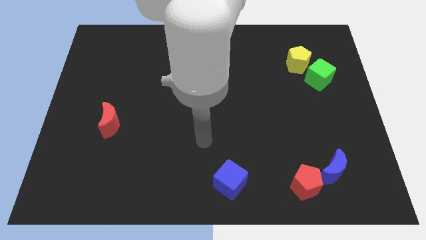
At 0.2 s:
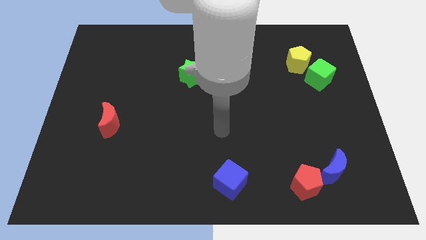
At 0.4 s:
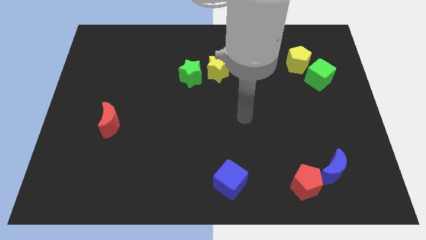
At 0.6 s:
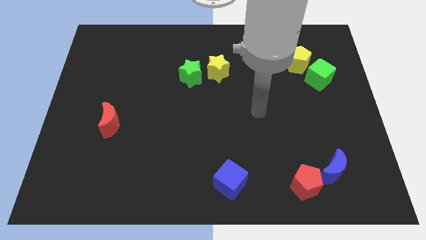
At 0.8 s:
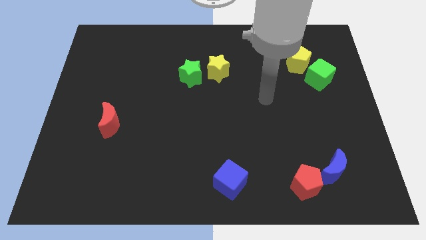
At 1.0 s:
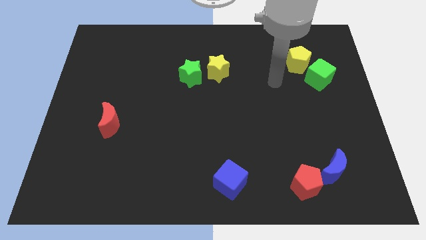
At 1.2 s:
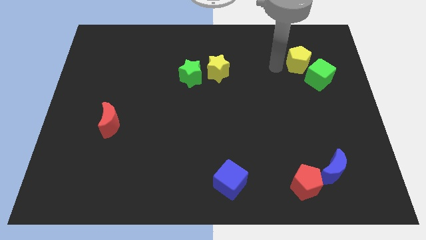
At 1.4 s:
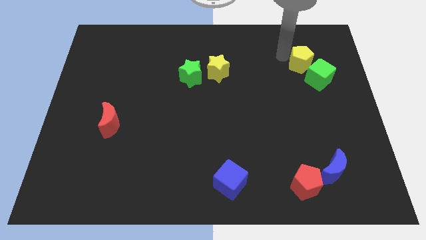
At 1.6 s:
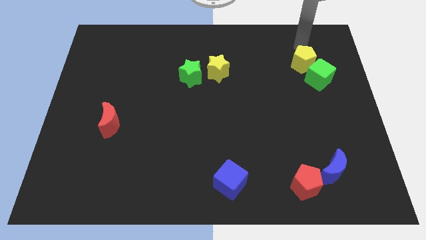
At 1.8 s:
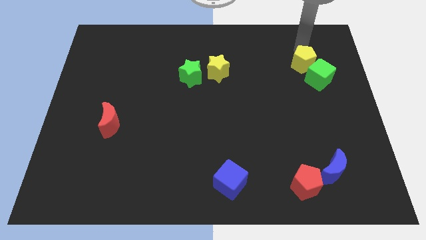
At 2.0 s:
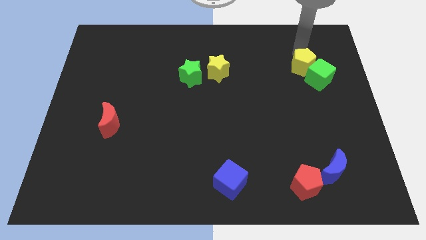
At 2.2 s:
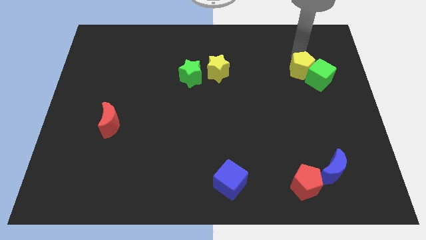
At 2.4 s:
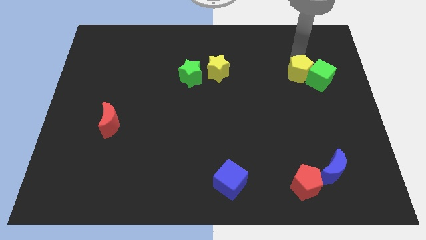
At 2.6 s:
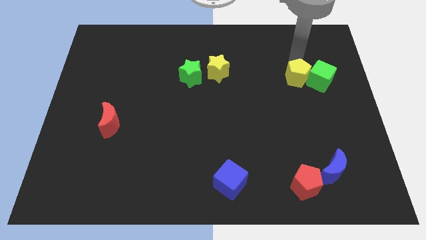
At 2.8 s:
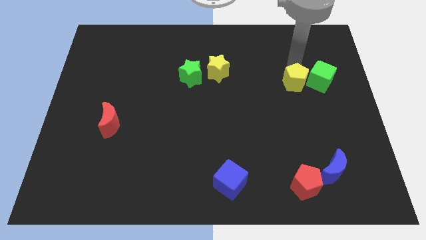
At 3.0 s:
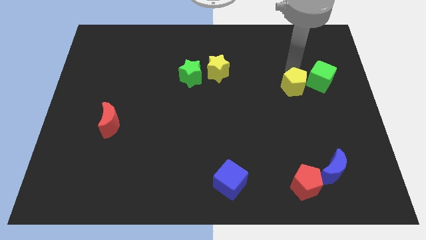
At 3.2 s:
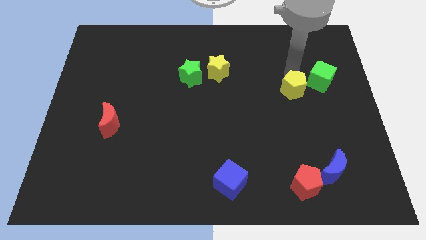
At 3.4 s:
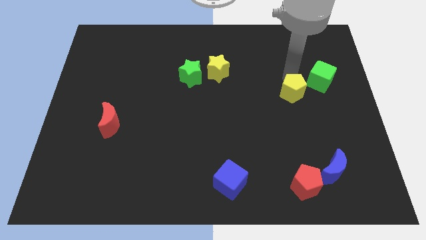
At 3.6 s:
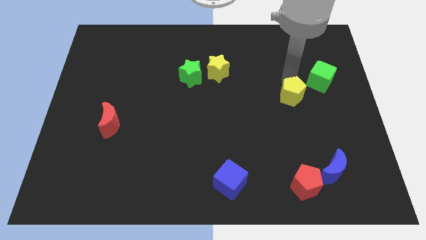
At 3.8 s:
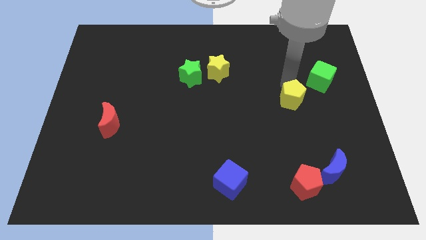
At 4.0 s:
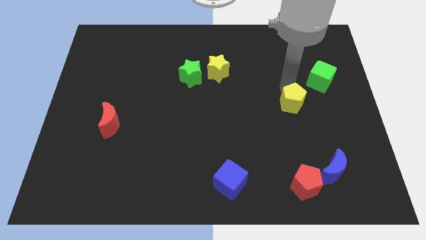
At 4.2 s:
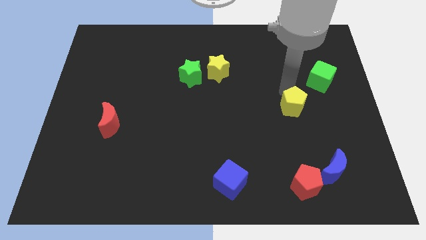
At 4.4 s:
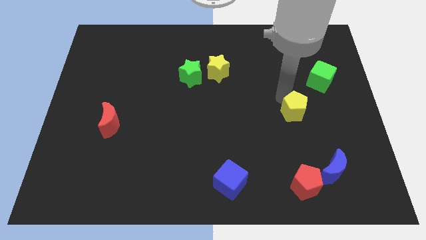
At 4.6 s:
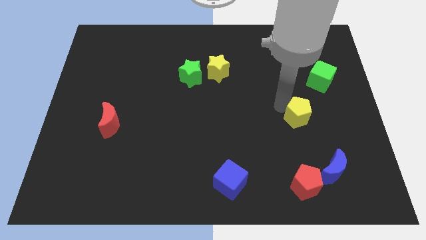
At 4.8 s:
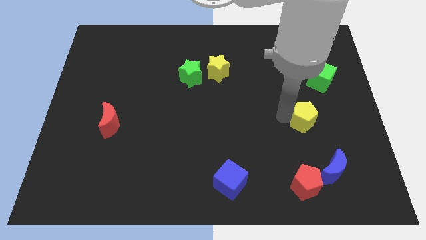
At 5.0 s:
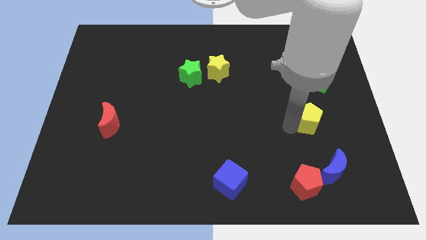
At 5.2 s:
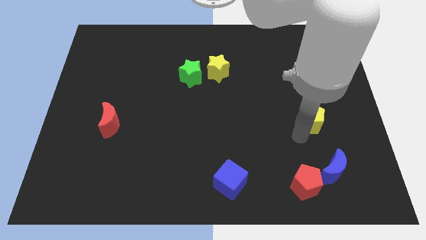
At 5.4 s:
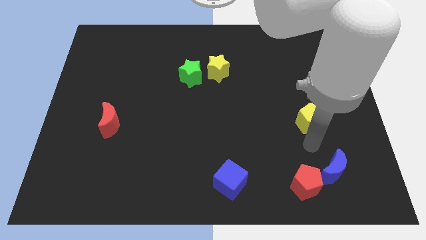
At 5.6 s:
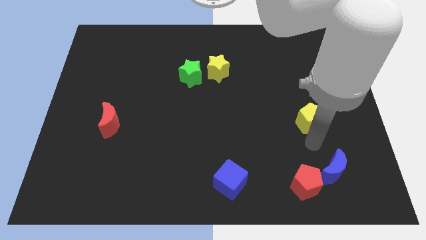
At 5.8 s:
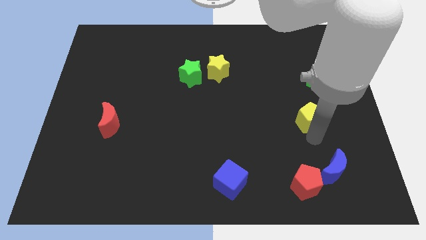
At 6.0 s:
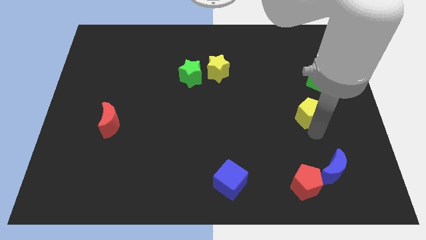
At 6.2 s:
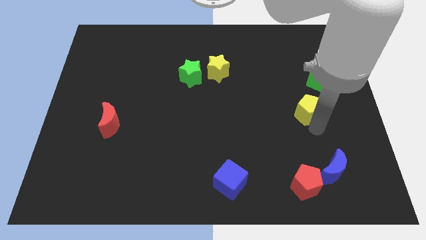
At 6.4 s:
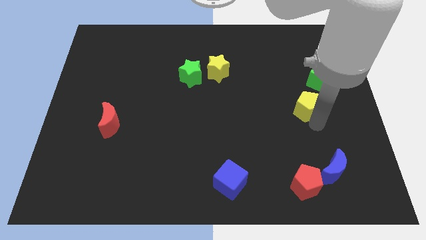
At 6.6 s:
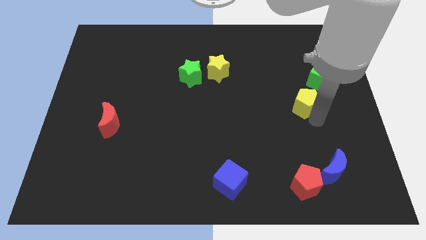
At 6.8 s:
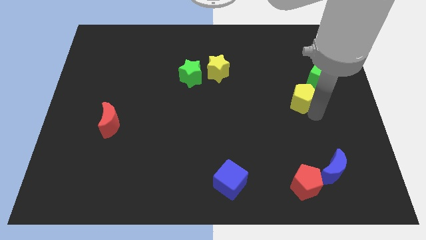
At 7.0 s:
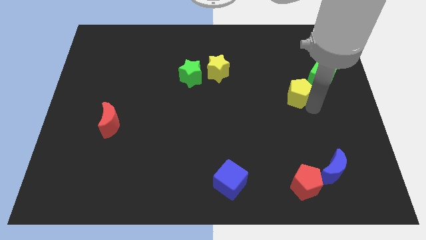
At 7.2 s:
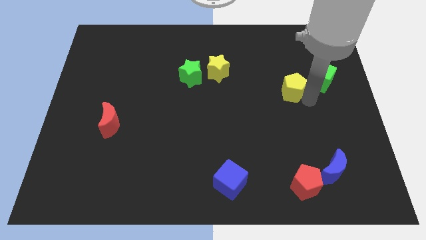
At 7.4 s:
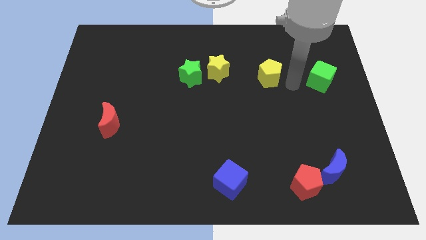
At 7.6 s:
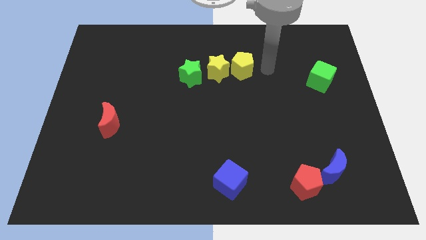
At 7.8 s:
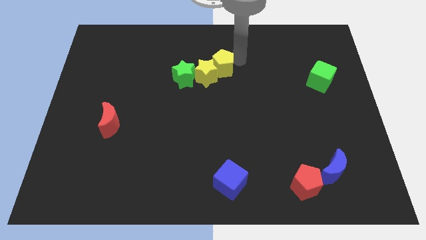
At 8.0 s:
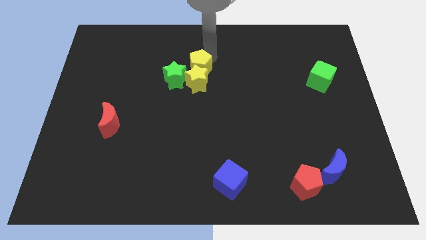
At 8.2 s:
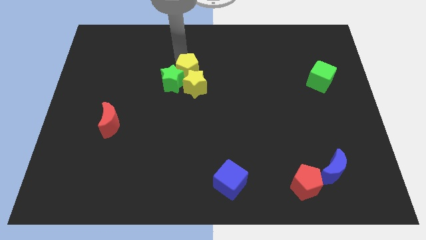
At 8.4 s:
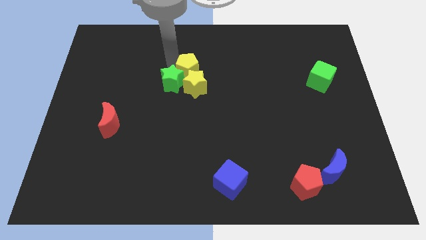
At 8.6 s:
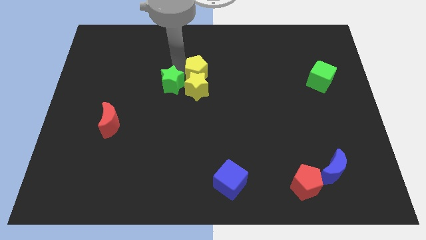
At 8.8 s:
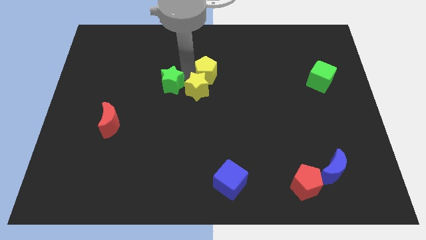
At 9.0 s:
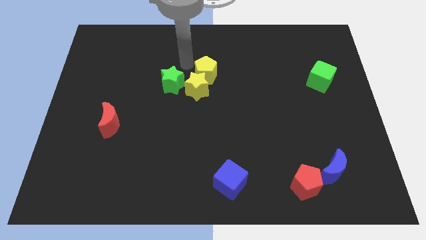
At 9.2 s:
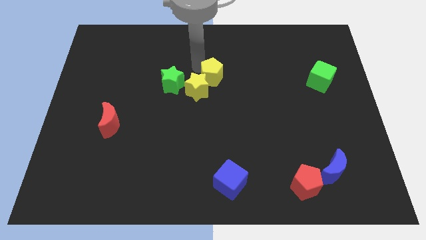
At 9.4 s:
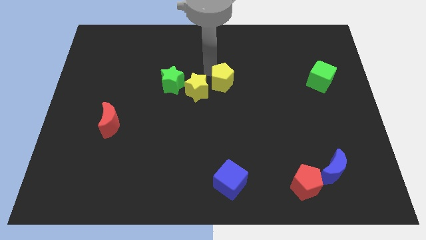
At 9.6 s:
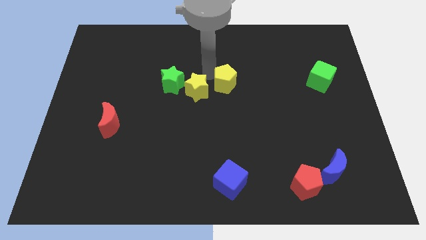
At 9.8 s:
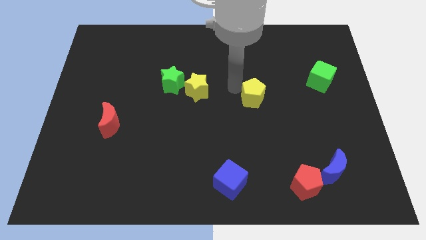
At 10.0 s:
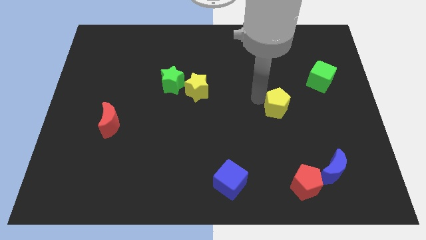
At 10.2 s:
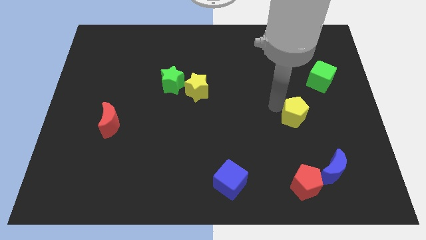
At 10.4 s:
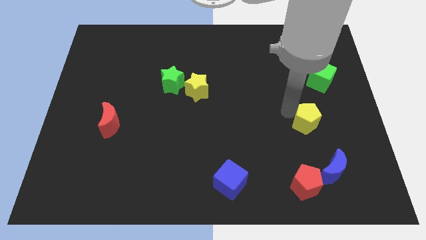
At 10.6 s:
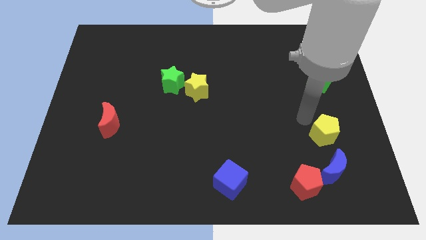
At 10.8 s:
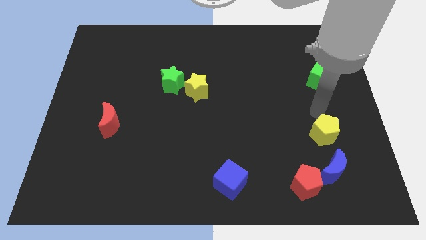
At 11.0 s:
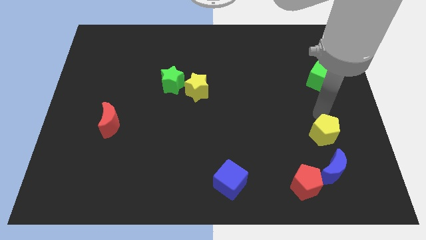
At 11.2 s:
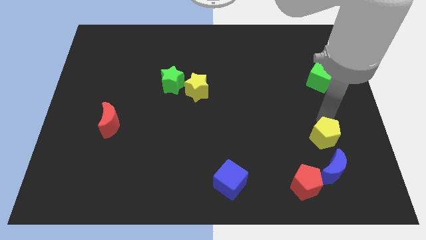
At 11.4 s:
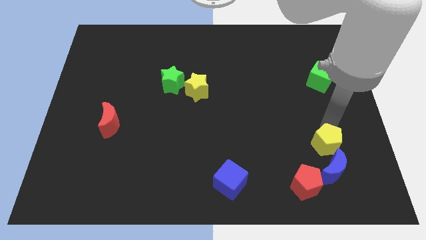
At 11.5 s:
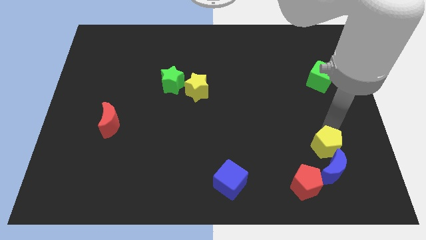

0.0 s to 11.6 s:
put the yellow pentagon close to the blue moon

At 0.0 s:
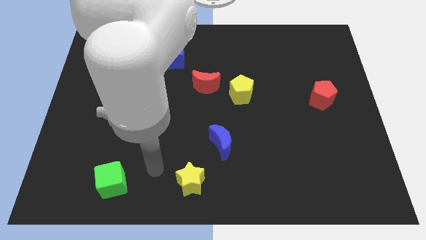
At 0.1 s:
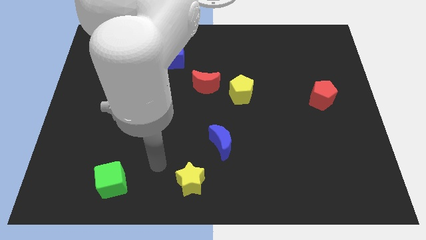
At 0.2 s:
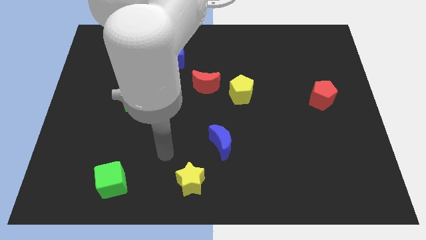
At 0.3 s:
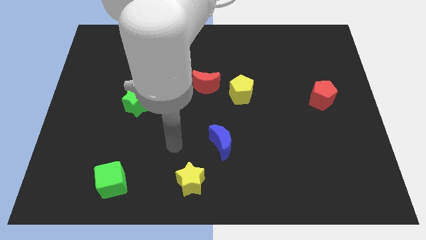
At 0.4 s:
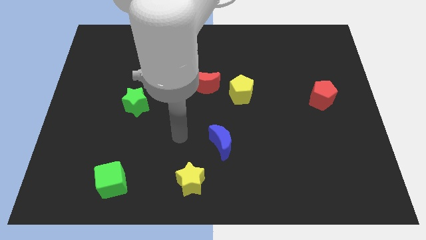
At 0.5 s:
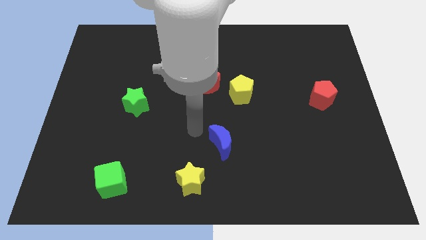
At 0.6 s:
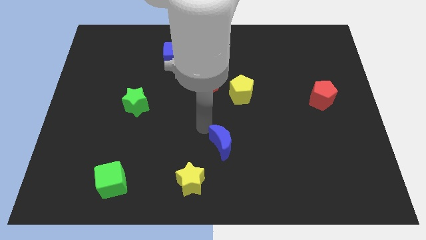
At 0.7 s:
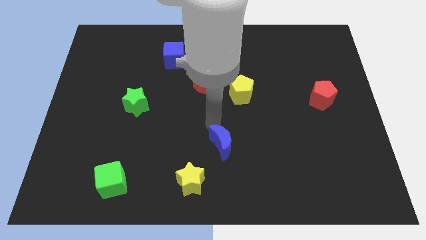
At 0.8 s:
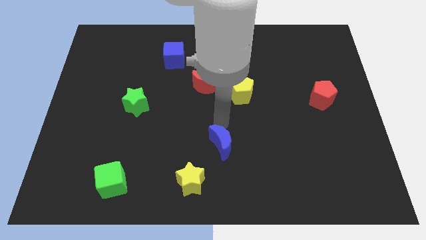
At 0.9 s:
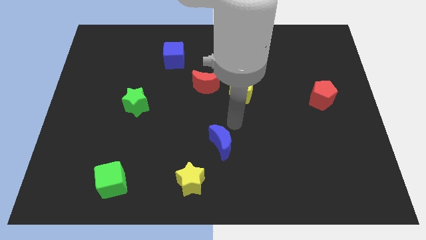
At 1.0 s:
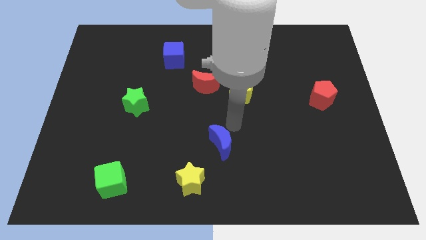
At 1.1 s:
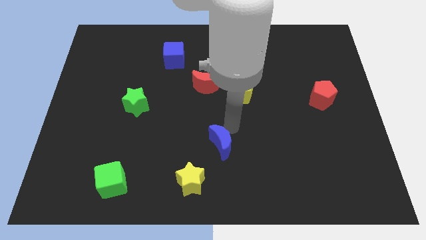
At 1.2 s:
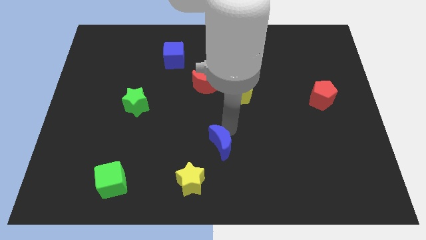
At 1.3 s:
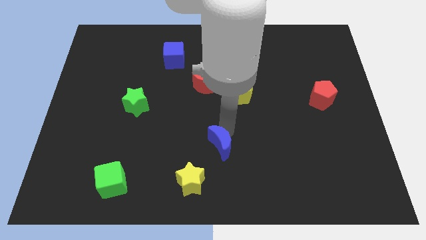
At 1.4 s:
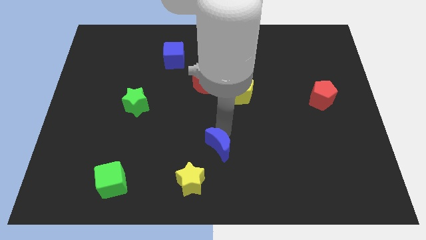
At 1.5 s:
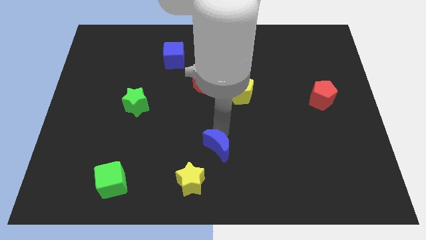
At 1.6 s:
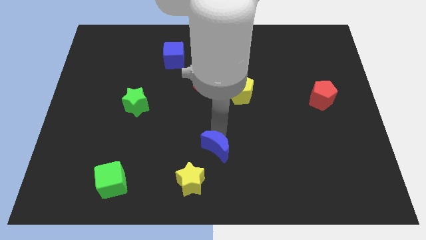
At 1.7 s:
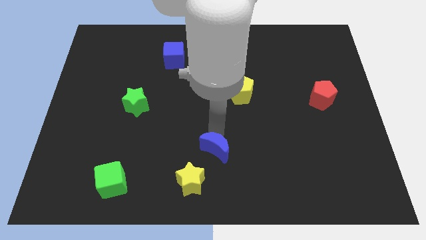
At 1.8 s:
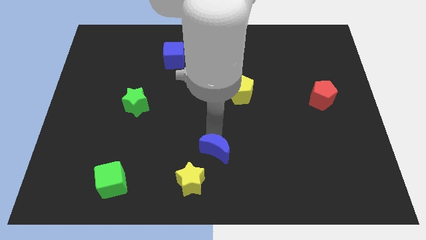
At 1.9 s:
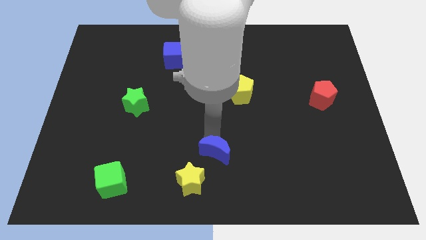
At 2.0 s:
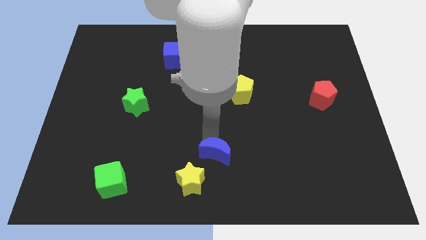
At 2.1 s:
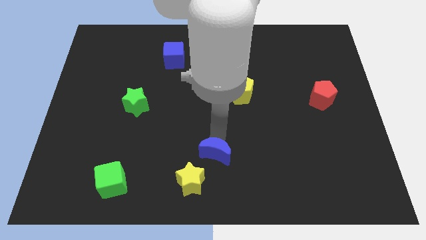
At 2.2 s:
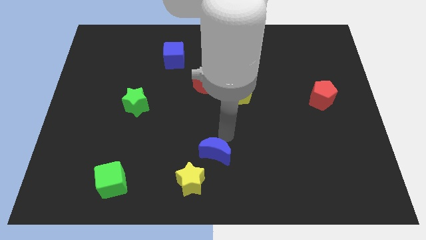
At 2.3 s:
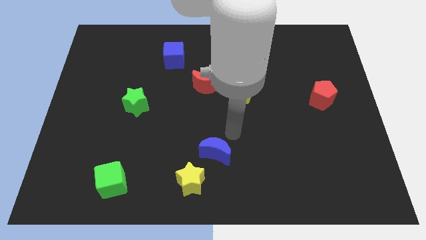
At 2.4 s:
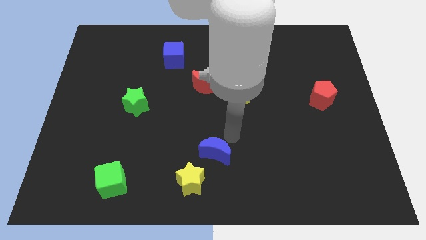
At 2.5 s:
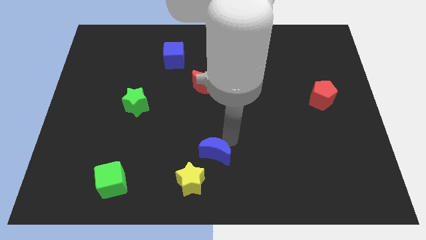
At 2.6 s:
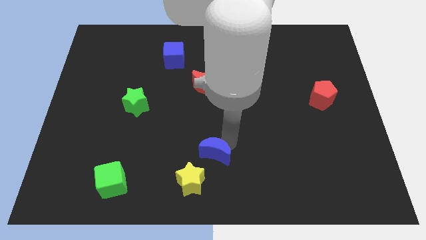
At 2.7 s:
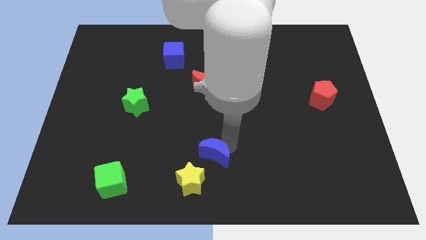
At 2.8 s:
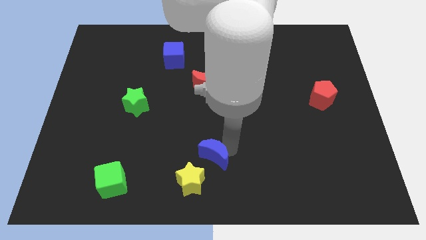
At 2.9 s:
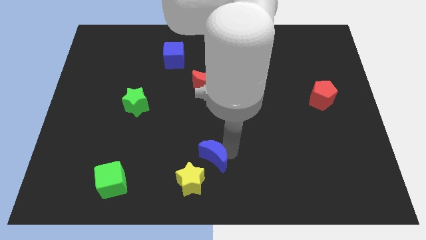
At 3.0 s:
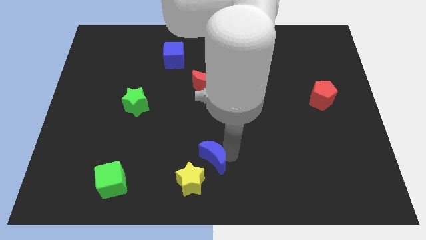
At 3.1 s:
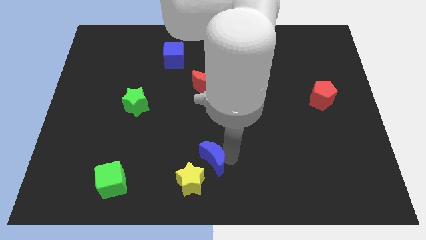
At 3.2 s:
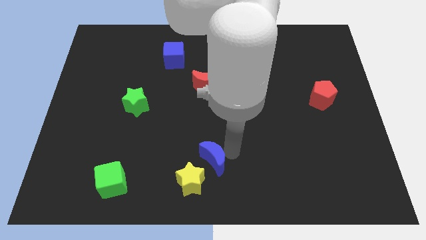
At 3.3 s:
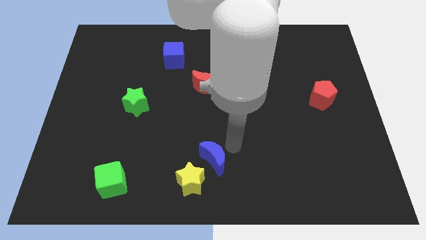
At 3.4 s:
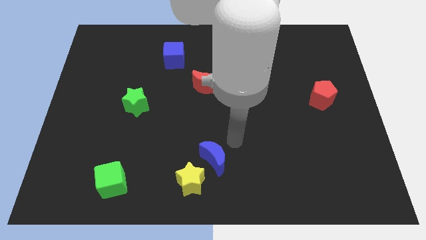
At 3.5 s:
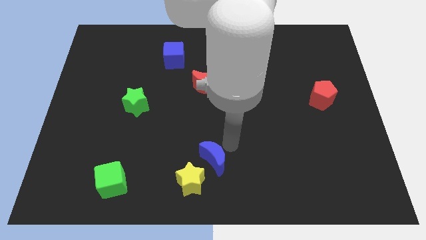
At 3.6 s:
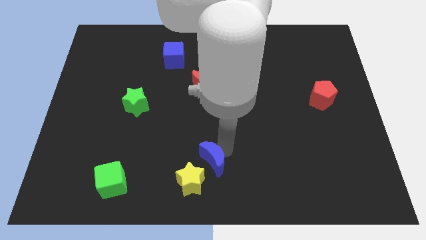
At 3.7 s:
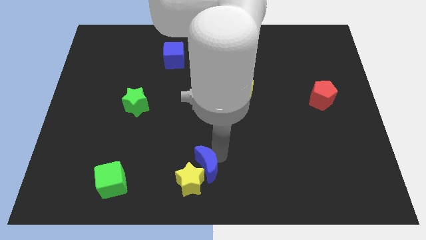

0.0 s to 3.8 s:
put the blue moon close to the yellow star
